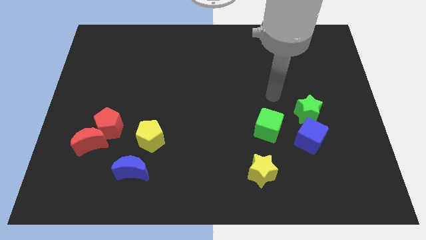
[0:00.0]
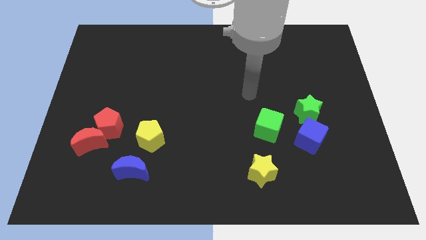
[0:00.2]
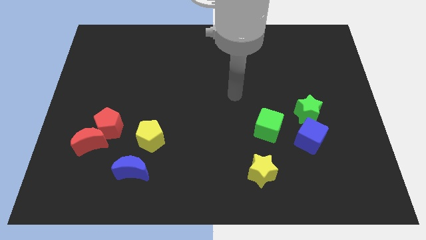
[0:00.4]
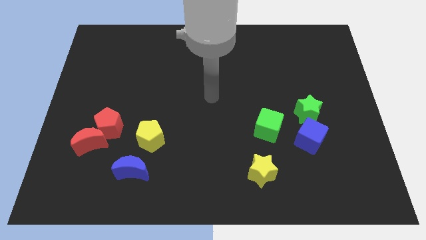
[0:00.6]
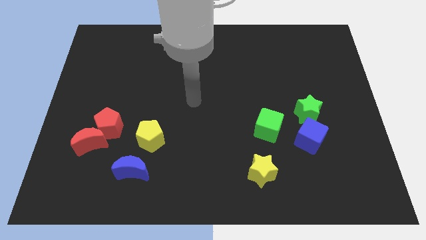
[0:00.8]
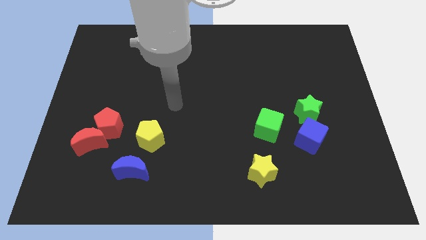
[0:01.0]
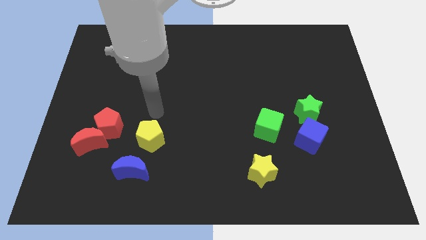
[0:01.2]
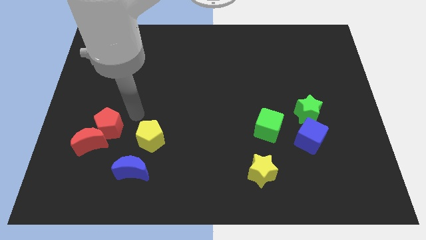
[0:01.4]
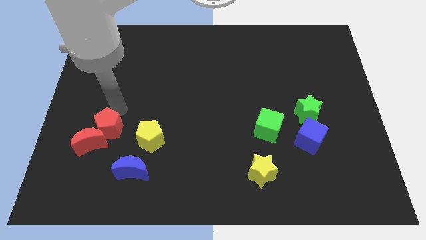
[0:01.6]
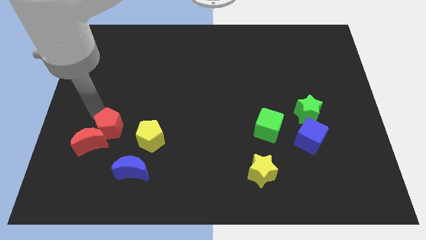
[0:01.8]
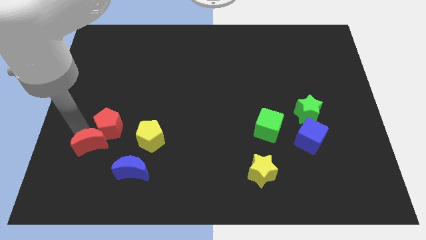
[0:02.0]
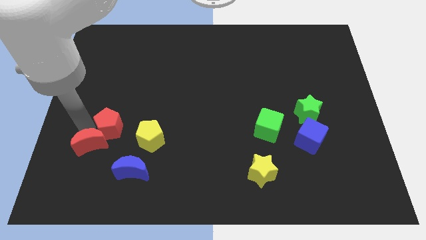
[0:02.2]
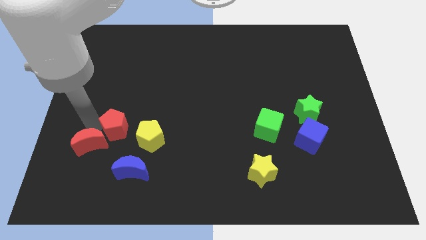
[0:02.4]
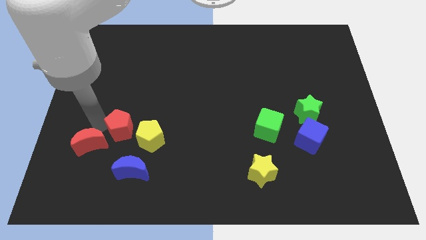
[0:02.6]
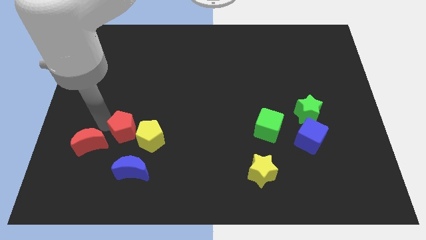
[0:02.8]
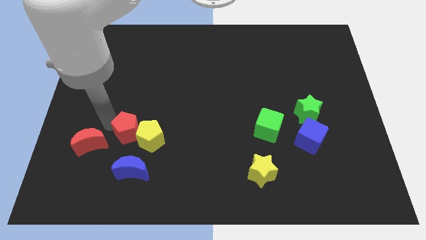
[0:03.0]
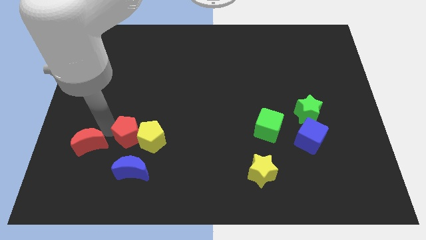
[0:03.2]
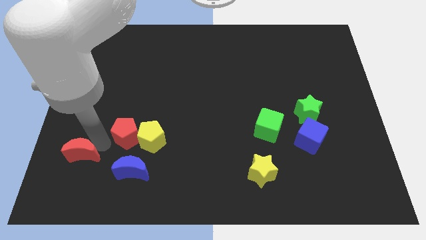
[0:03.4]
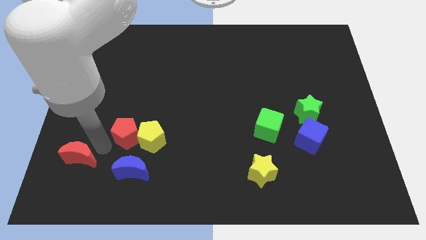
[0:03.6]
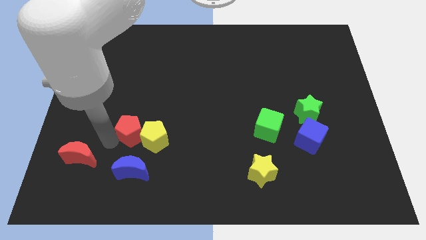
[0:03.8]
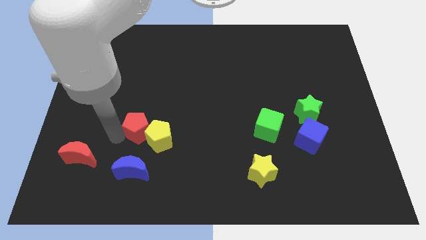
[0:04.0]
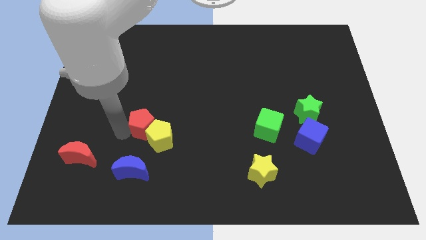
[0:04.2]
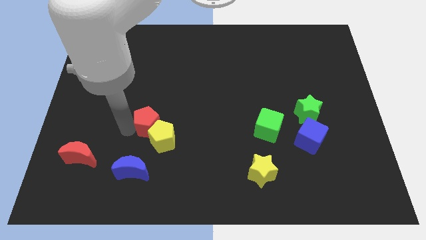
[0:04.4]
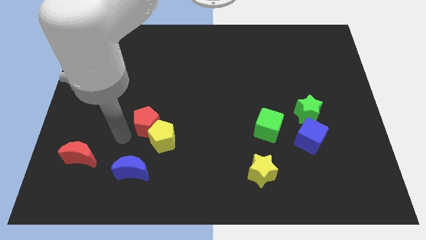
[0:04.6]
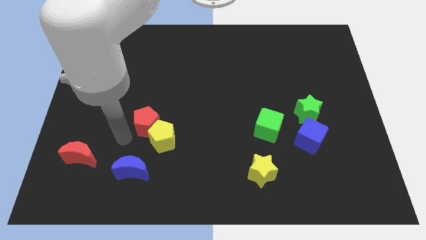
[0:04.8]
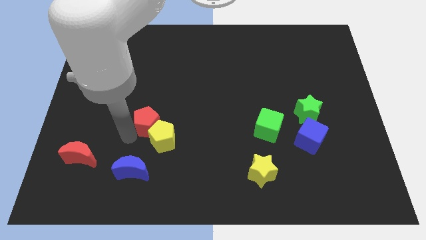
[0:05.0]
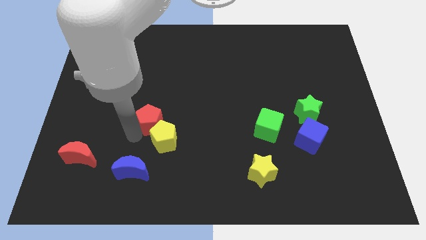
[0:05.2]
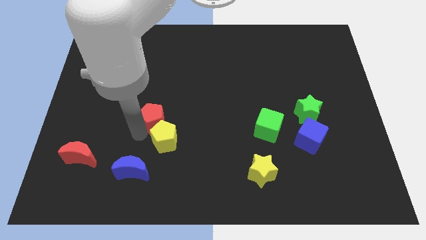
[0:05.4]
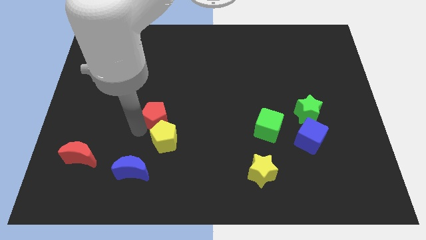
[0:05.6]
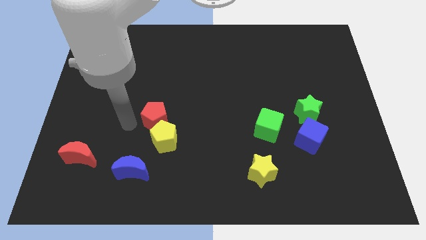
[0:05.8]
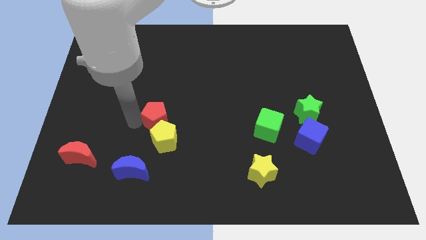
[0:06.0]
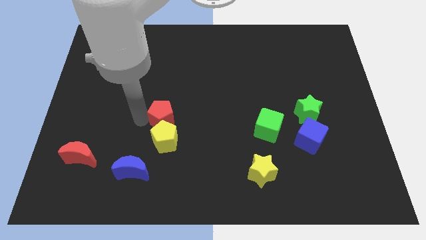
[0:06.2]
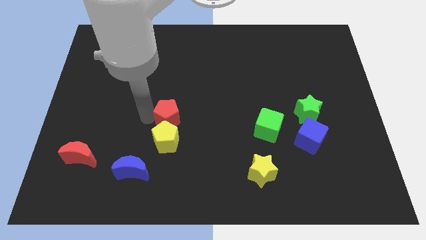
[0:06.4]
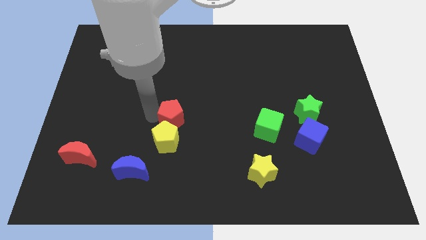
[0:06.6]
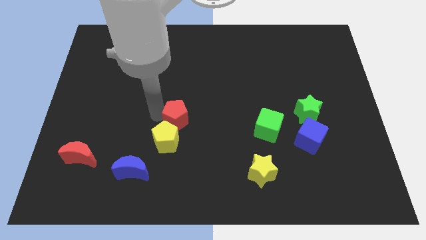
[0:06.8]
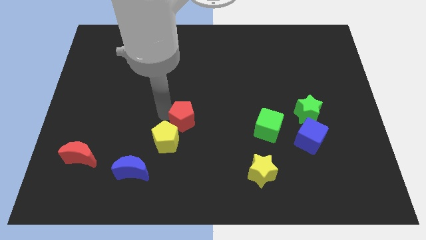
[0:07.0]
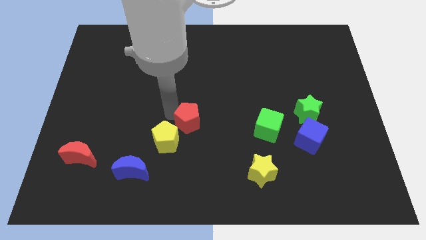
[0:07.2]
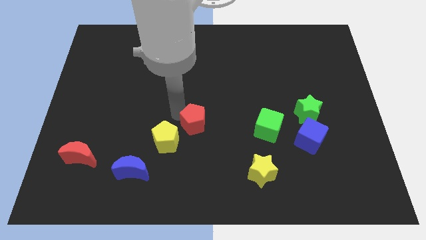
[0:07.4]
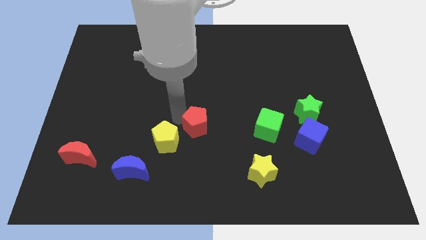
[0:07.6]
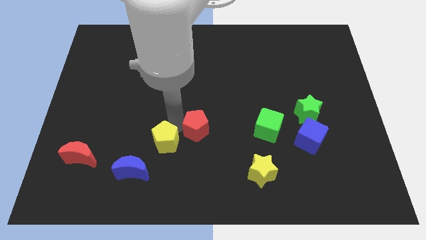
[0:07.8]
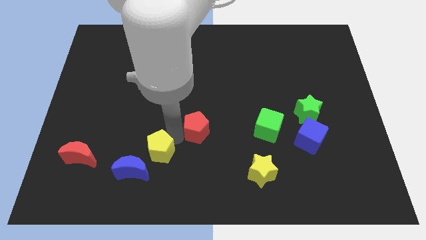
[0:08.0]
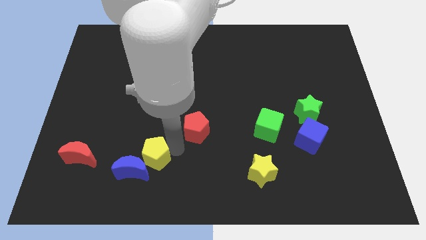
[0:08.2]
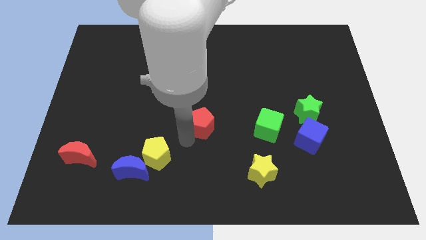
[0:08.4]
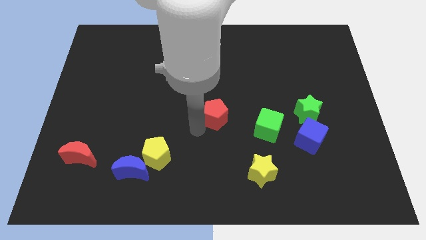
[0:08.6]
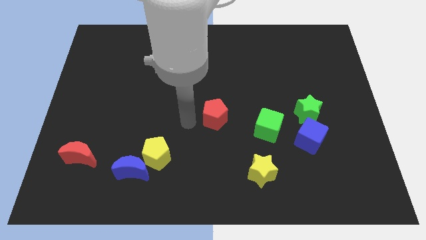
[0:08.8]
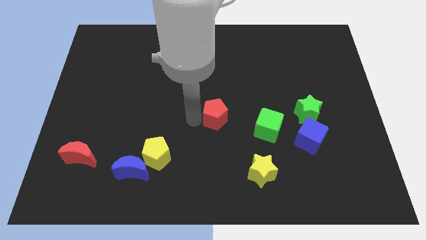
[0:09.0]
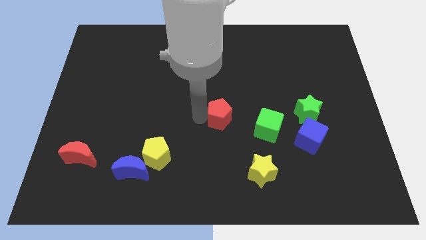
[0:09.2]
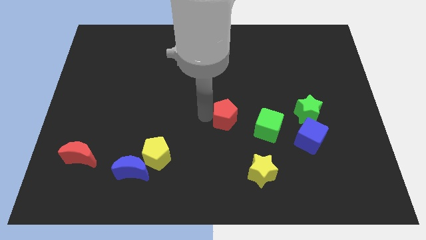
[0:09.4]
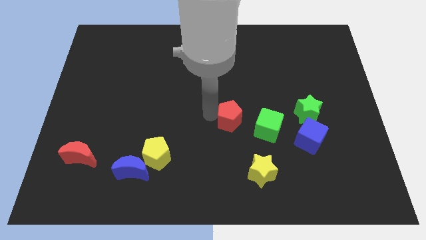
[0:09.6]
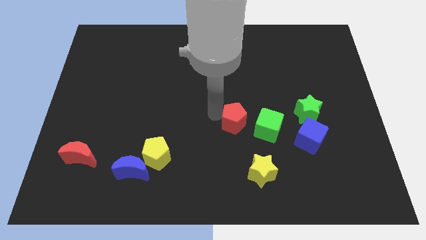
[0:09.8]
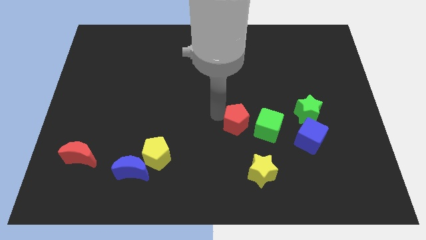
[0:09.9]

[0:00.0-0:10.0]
slide the red pentagon to the top of the yellow star

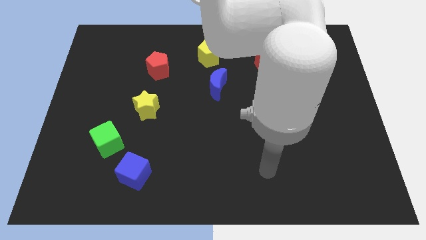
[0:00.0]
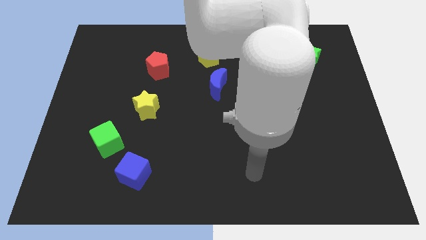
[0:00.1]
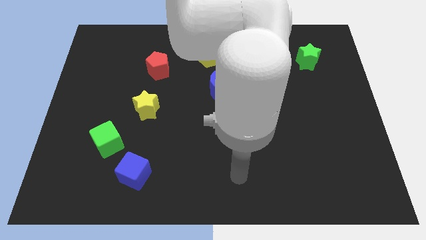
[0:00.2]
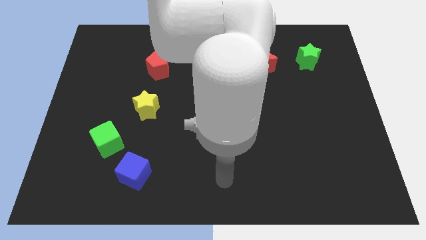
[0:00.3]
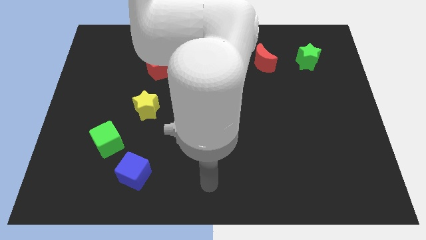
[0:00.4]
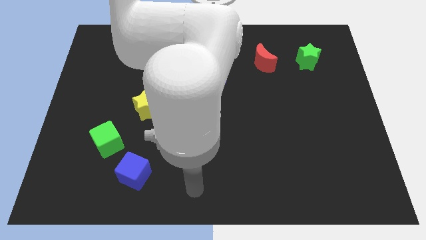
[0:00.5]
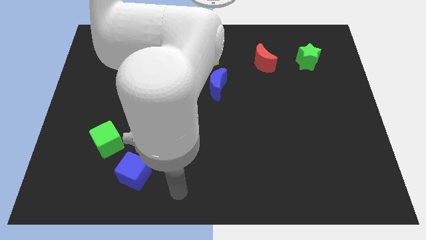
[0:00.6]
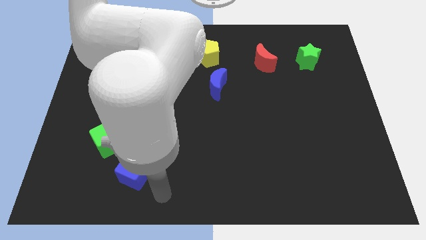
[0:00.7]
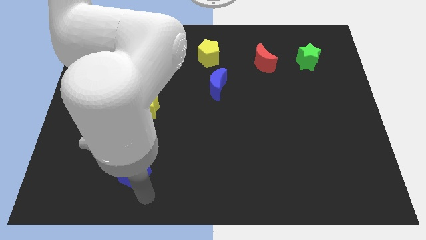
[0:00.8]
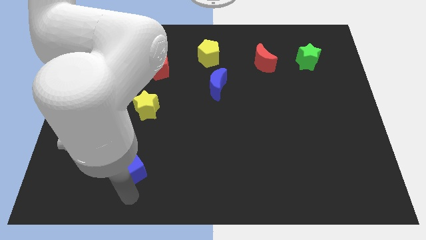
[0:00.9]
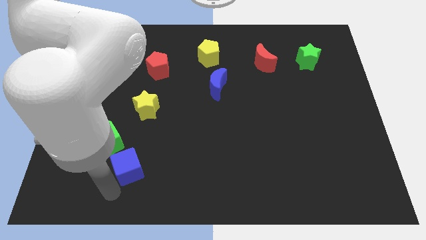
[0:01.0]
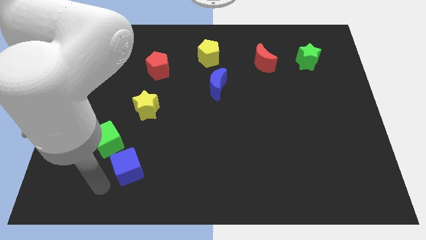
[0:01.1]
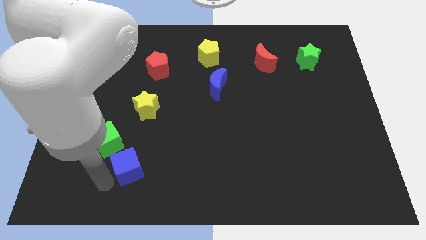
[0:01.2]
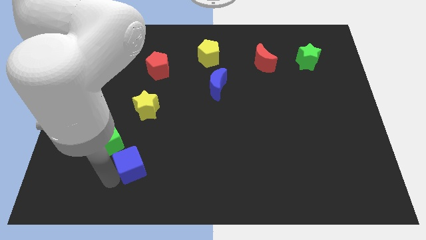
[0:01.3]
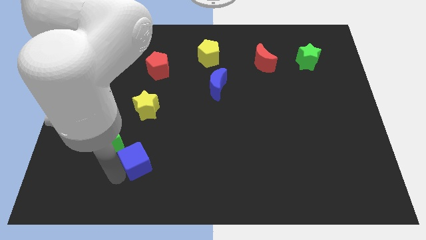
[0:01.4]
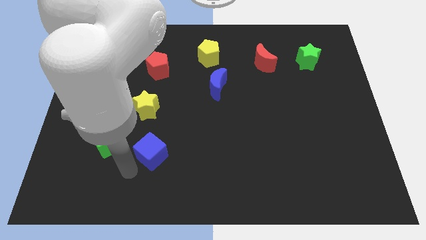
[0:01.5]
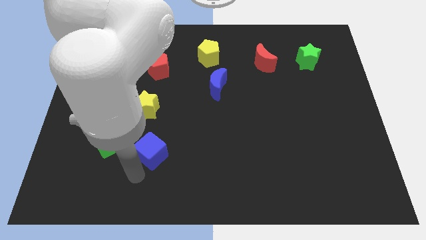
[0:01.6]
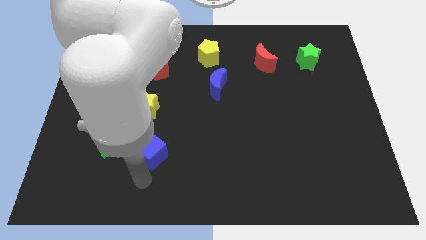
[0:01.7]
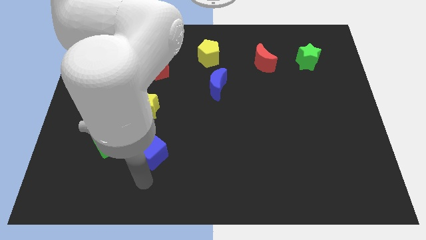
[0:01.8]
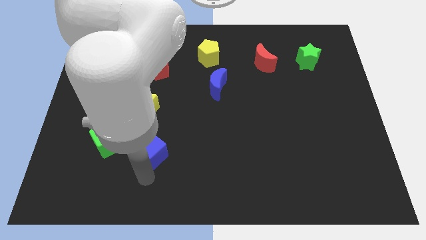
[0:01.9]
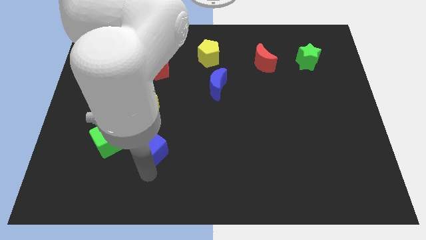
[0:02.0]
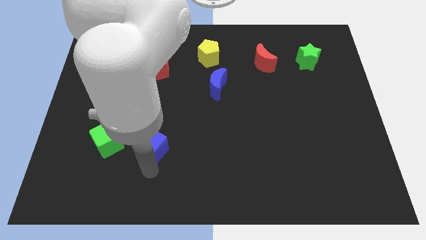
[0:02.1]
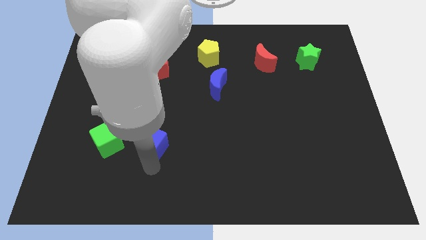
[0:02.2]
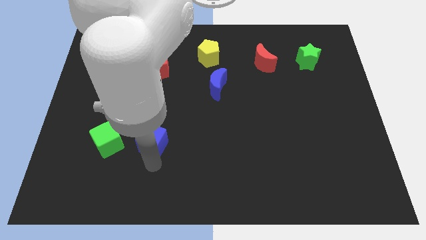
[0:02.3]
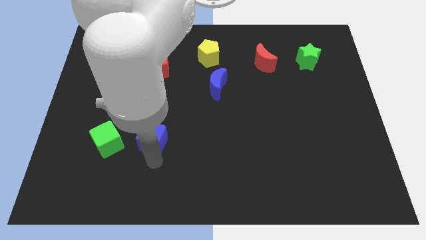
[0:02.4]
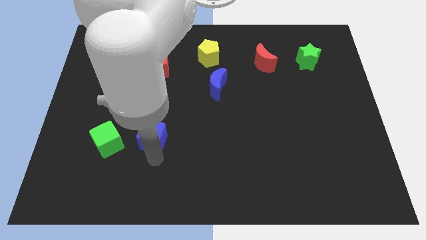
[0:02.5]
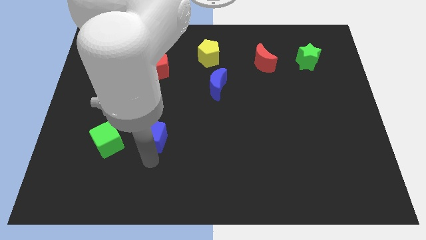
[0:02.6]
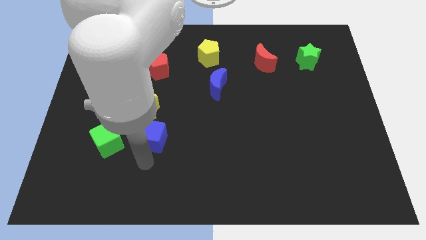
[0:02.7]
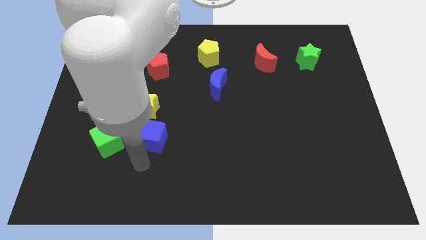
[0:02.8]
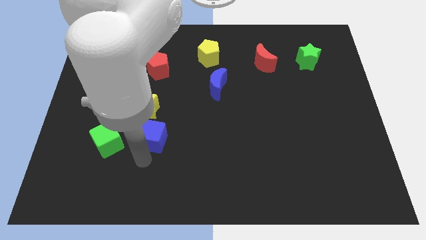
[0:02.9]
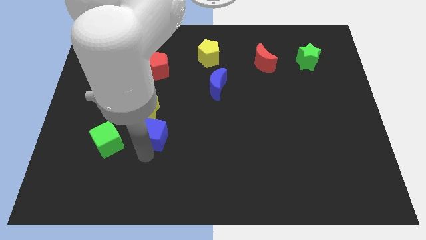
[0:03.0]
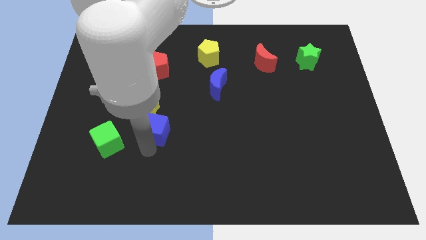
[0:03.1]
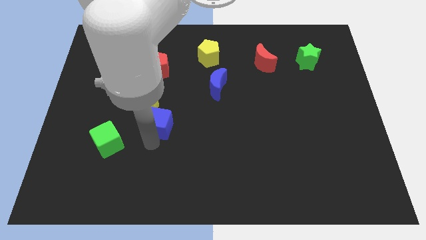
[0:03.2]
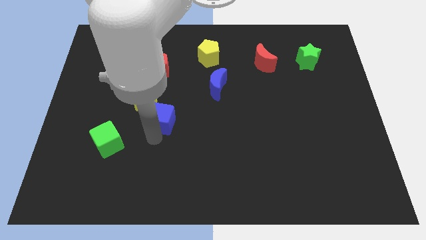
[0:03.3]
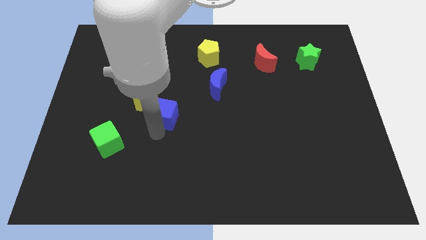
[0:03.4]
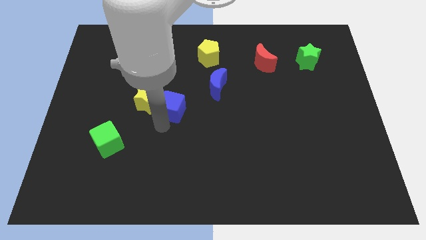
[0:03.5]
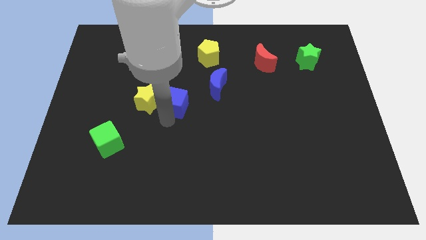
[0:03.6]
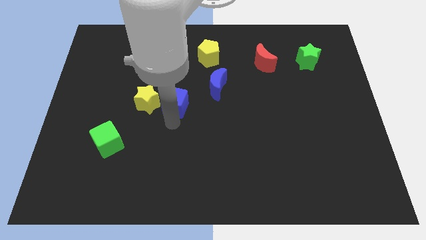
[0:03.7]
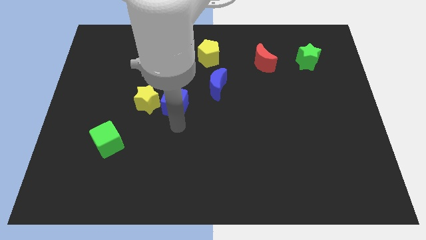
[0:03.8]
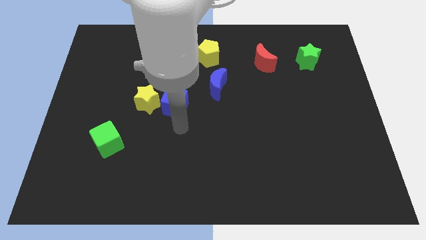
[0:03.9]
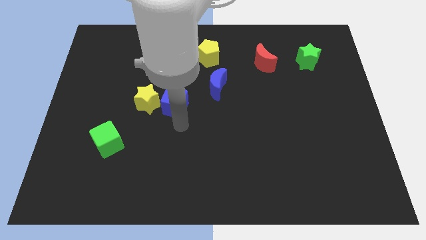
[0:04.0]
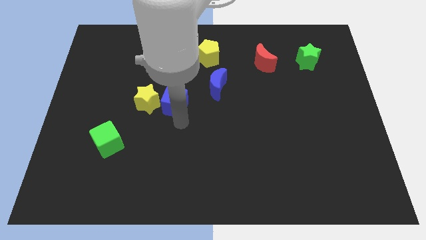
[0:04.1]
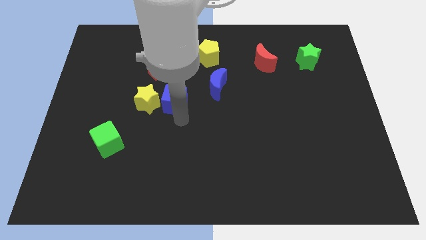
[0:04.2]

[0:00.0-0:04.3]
push the blue cube diagonally up and to the right of the yellow star
